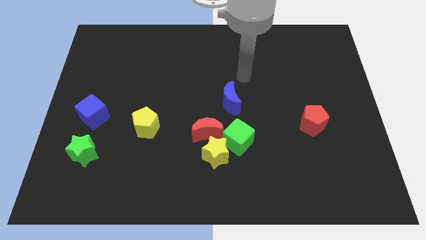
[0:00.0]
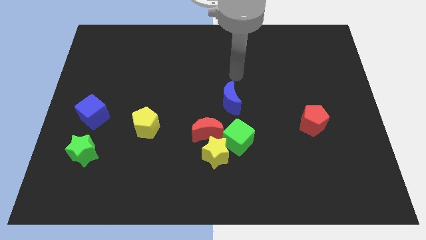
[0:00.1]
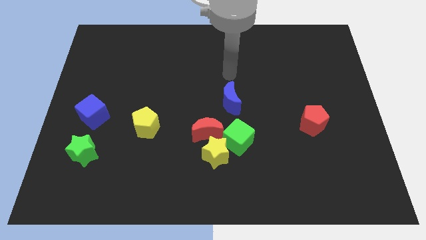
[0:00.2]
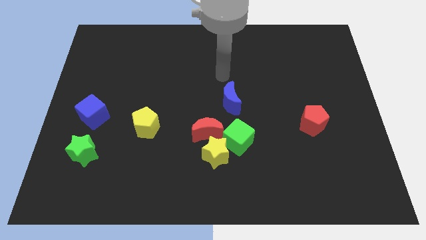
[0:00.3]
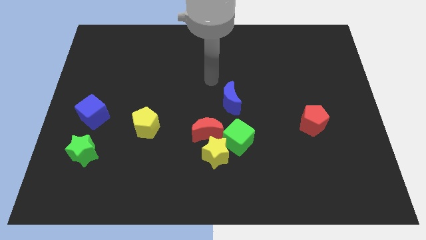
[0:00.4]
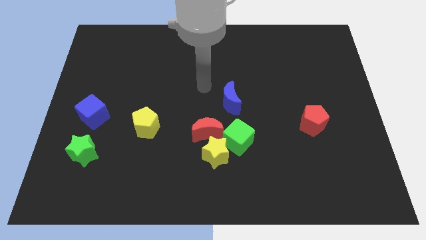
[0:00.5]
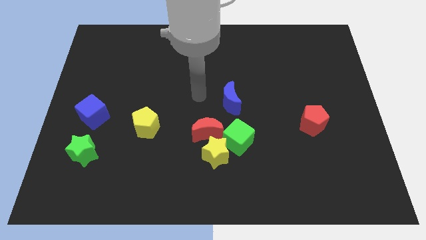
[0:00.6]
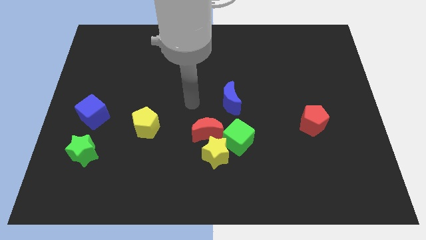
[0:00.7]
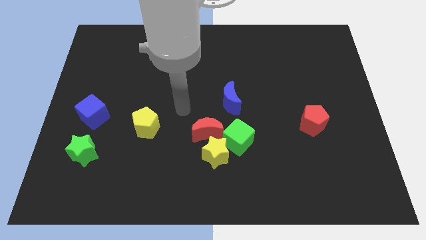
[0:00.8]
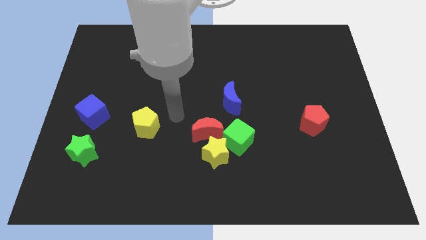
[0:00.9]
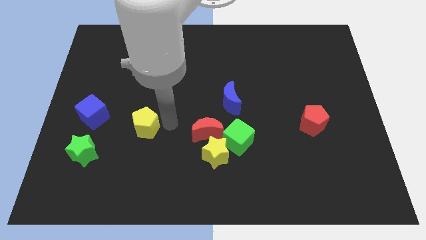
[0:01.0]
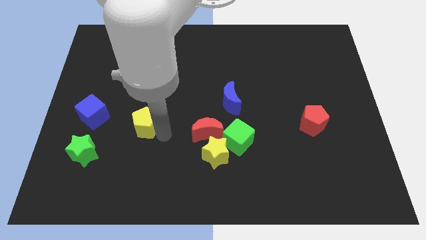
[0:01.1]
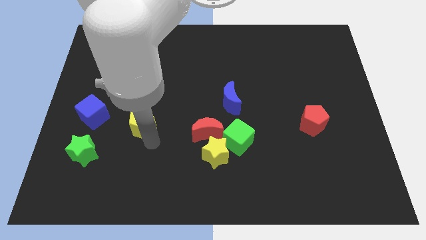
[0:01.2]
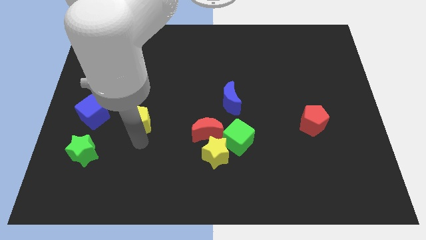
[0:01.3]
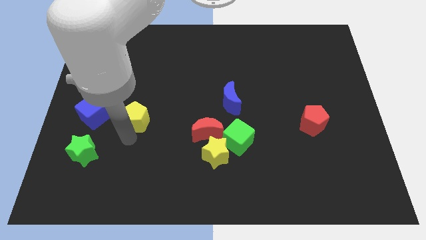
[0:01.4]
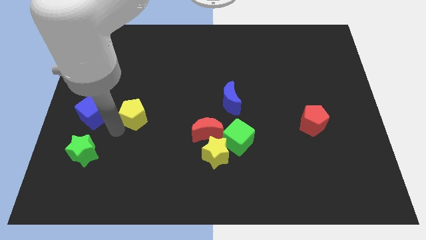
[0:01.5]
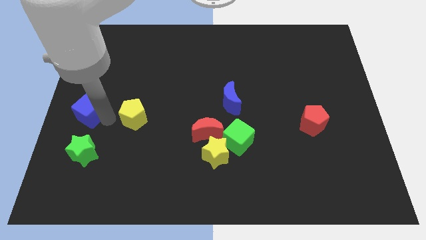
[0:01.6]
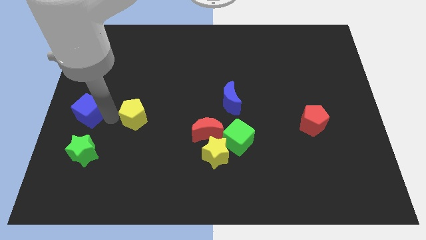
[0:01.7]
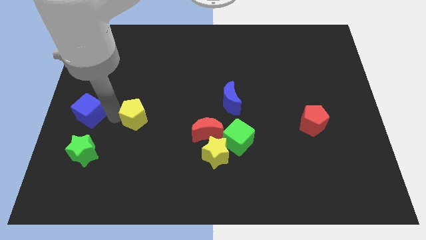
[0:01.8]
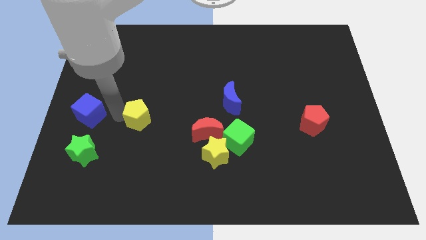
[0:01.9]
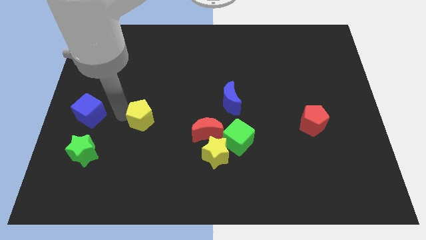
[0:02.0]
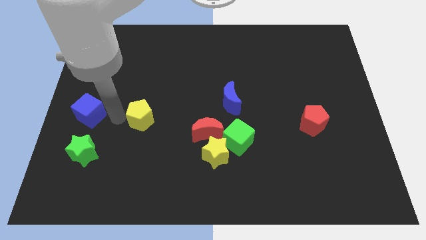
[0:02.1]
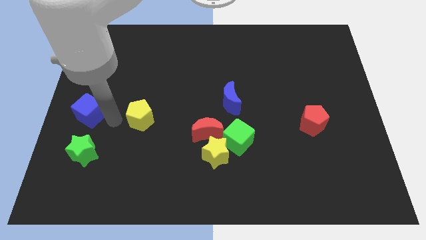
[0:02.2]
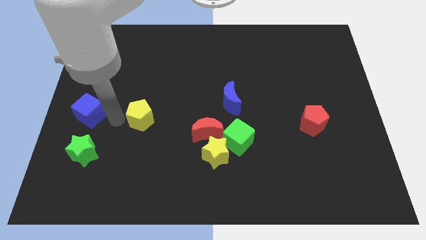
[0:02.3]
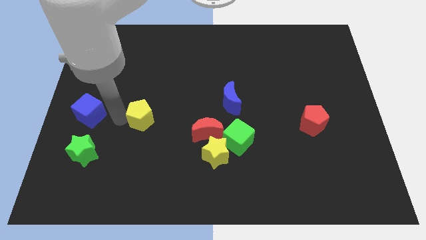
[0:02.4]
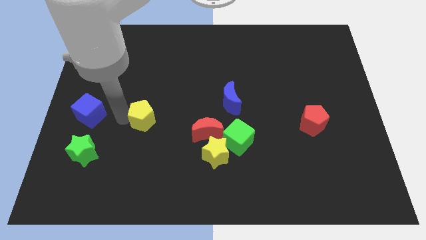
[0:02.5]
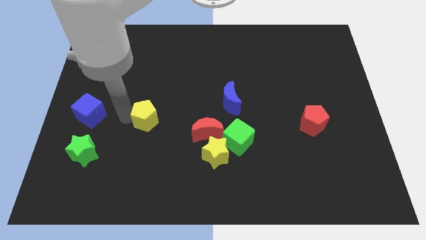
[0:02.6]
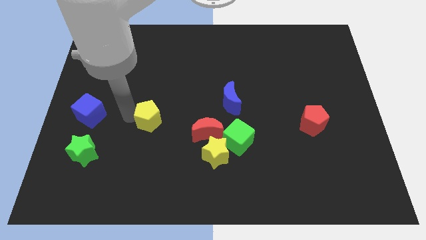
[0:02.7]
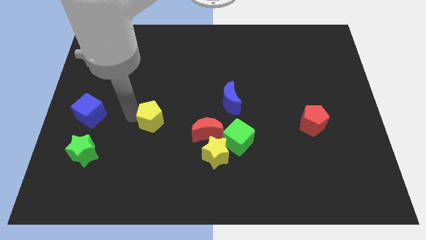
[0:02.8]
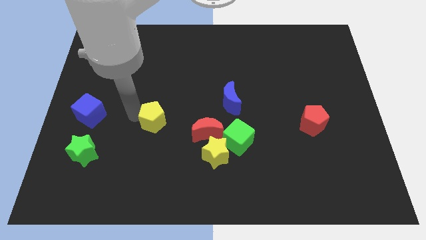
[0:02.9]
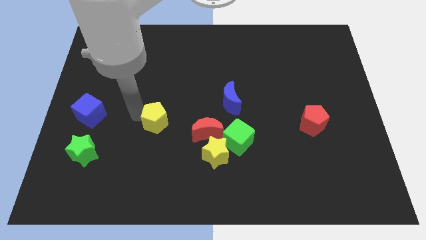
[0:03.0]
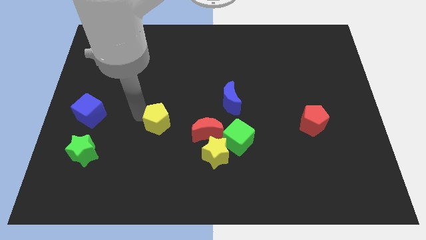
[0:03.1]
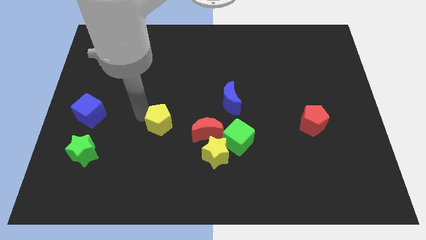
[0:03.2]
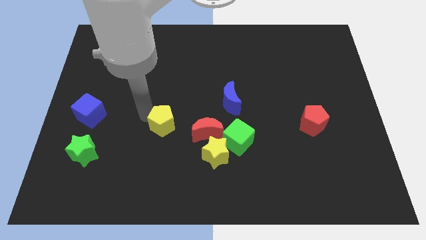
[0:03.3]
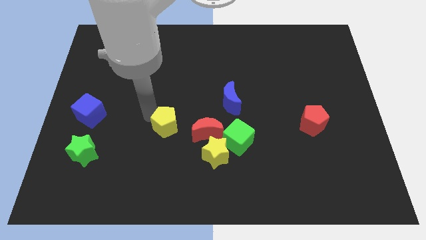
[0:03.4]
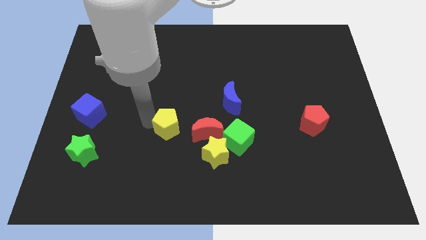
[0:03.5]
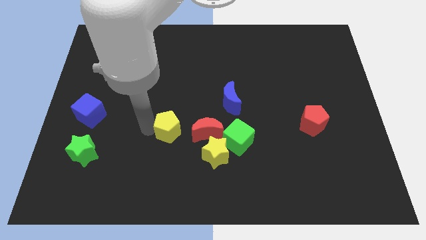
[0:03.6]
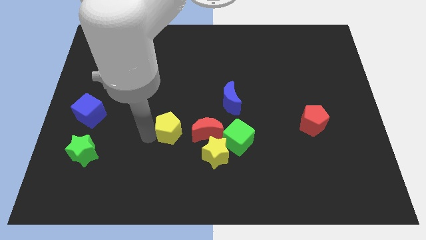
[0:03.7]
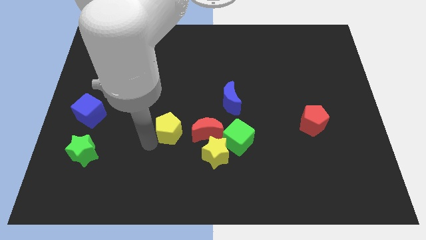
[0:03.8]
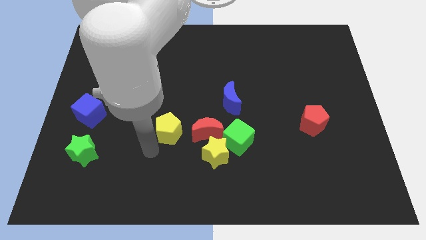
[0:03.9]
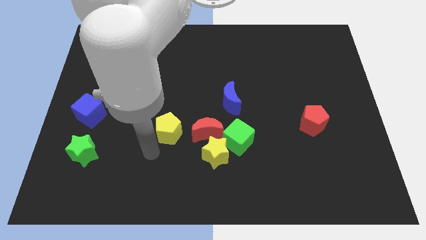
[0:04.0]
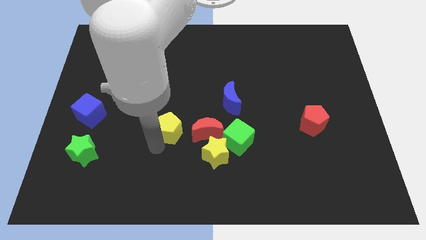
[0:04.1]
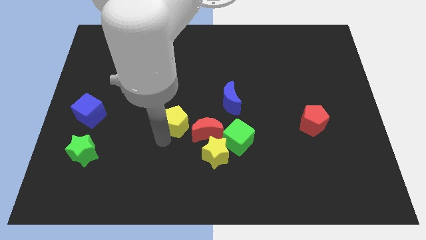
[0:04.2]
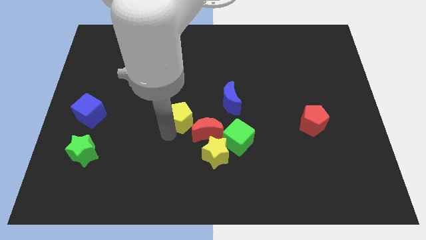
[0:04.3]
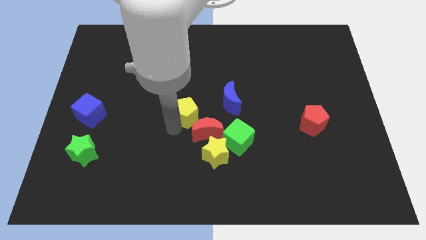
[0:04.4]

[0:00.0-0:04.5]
push the yellow pentagon slightly up and then right

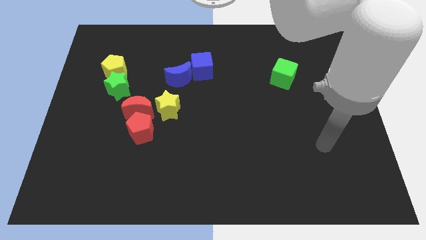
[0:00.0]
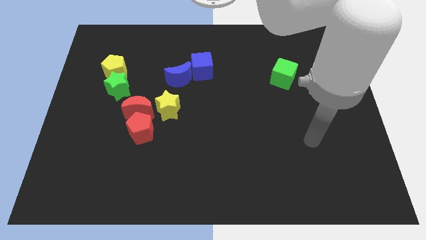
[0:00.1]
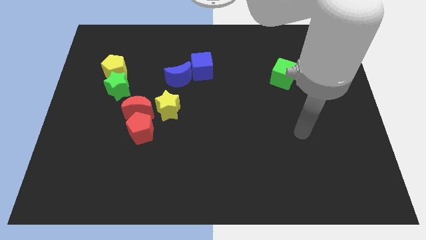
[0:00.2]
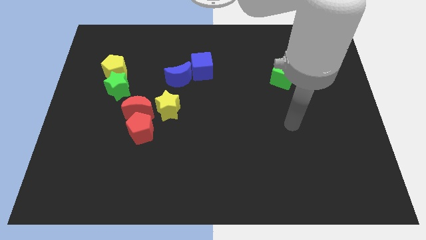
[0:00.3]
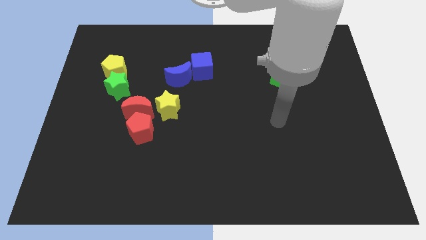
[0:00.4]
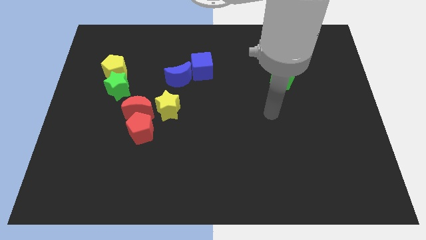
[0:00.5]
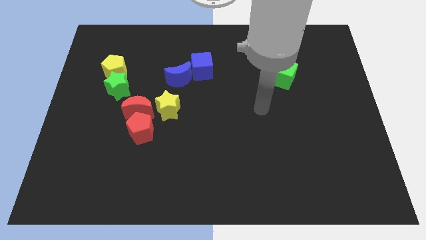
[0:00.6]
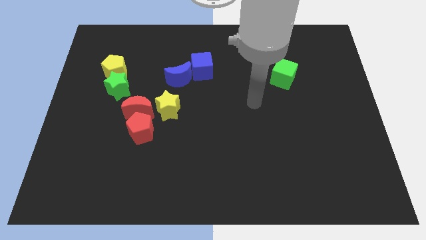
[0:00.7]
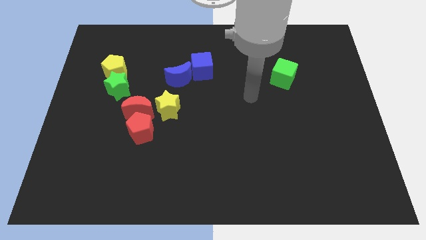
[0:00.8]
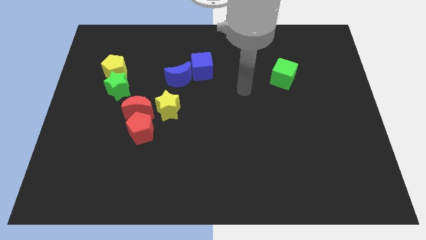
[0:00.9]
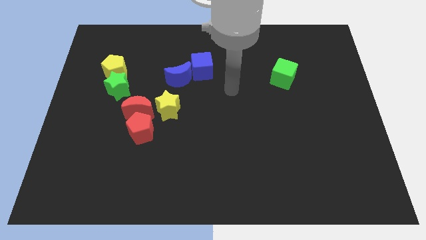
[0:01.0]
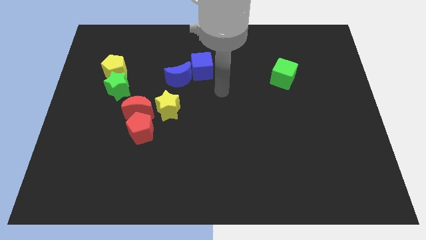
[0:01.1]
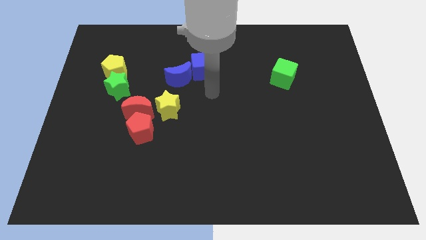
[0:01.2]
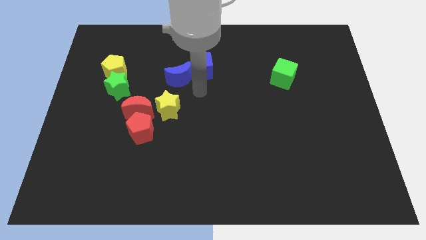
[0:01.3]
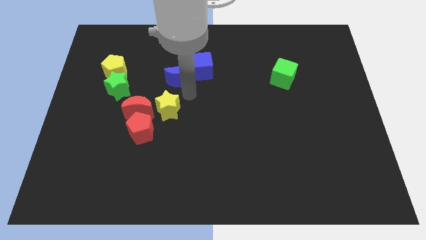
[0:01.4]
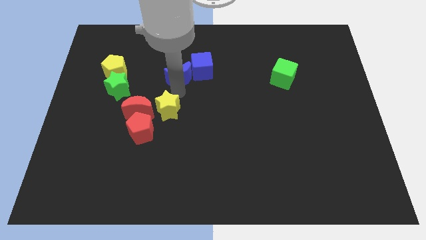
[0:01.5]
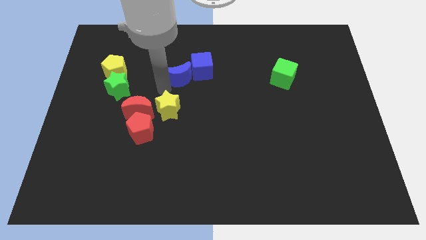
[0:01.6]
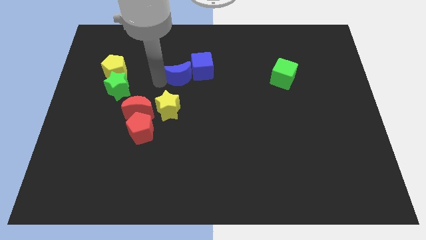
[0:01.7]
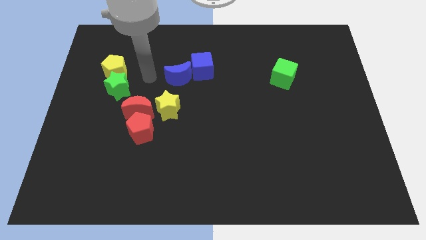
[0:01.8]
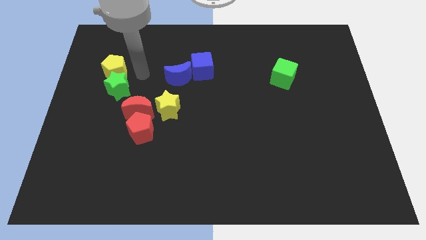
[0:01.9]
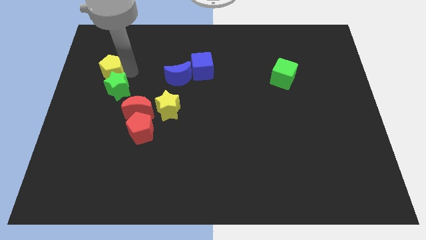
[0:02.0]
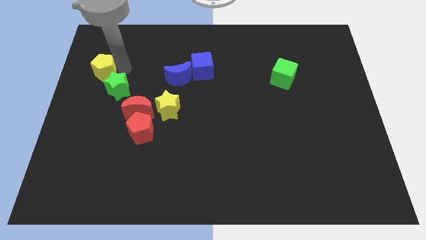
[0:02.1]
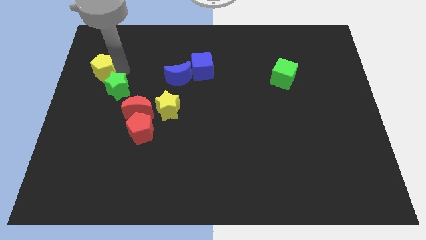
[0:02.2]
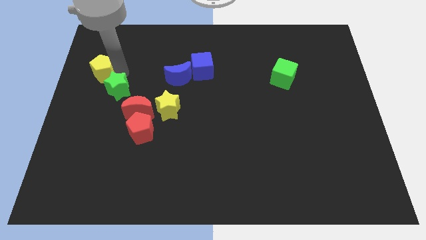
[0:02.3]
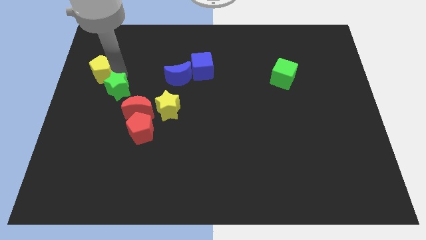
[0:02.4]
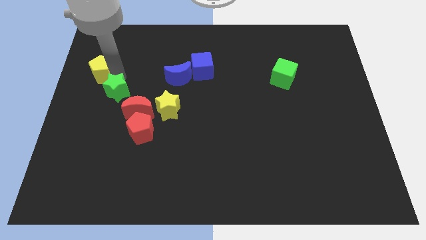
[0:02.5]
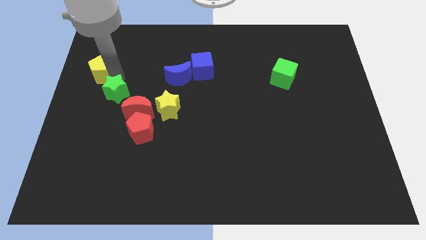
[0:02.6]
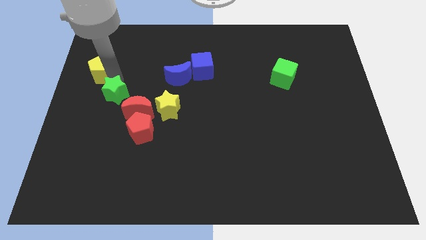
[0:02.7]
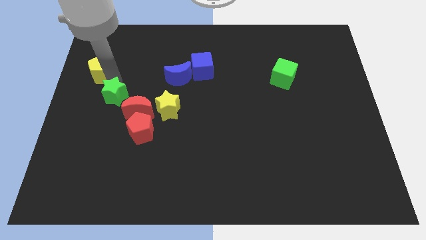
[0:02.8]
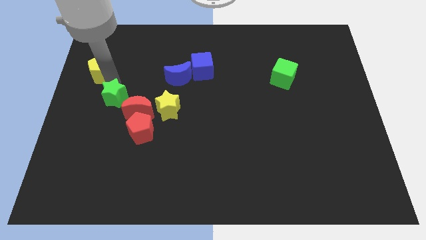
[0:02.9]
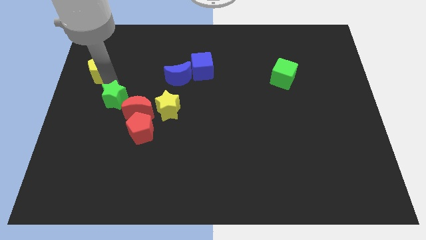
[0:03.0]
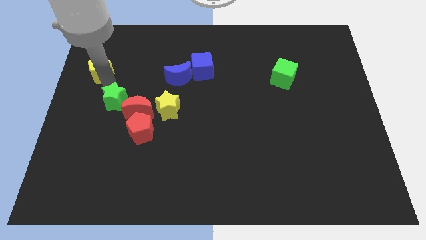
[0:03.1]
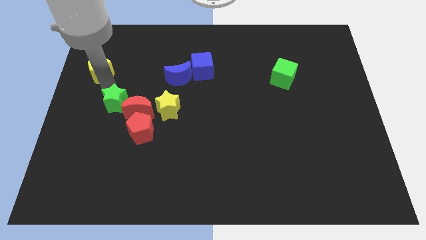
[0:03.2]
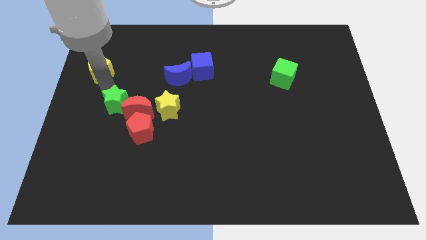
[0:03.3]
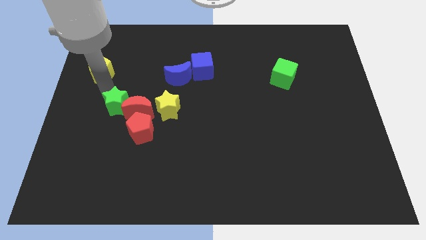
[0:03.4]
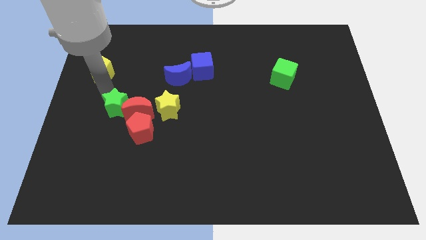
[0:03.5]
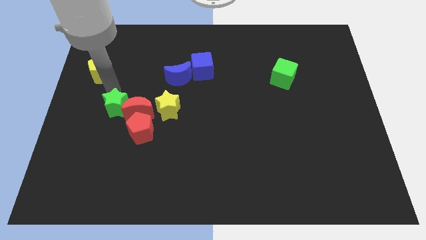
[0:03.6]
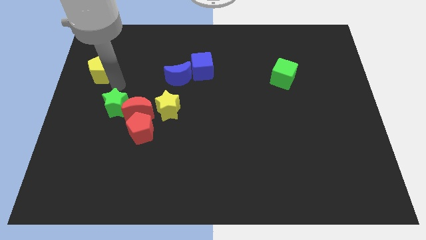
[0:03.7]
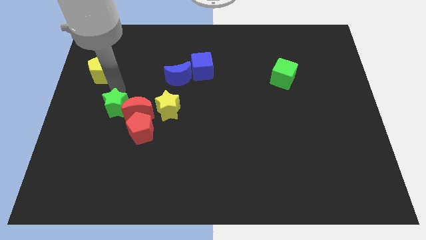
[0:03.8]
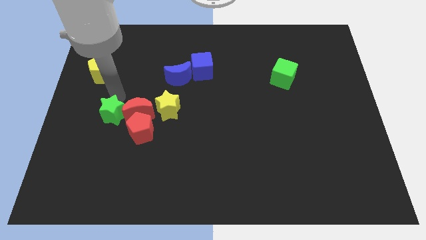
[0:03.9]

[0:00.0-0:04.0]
slide the green star downwards a little
